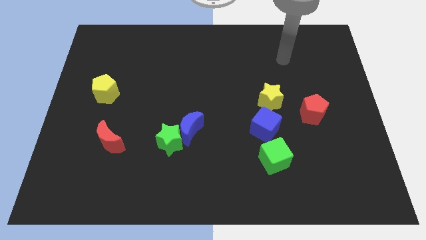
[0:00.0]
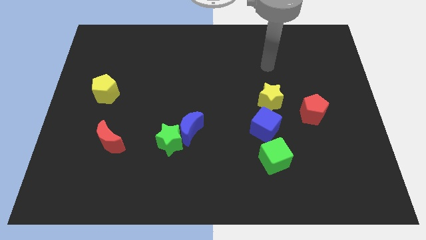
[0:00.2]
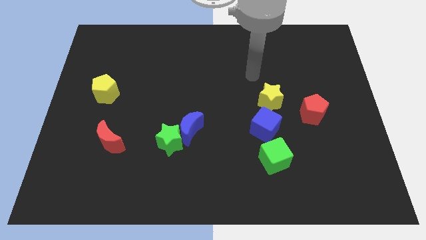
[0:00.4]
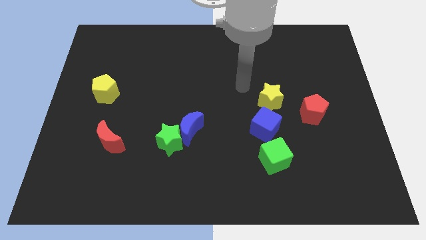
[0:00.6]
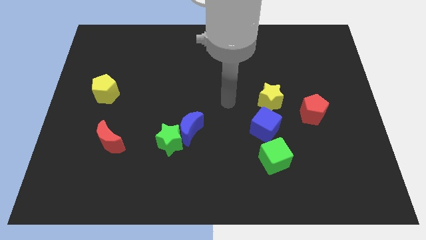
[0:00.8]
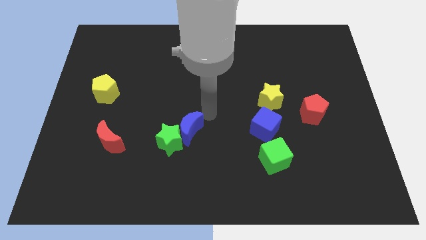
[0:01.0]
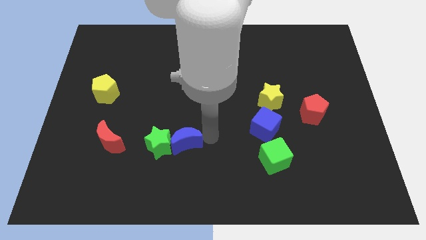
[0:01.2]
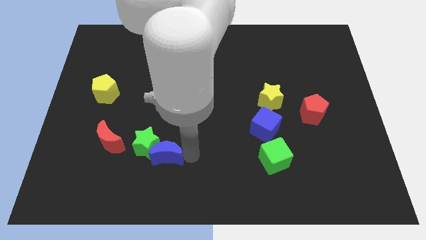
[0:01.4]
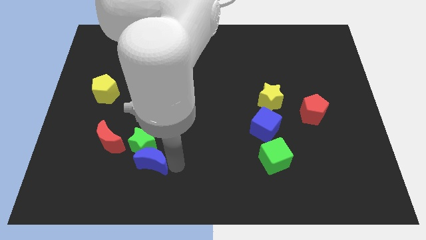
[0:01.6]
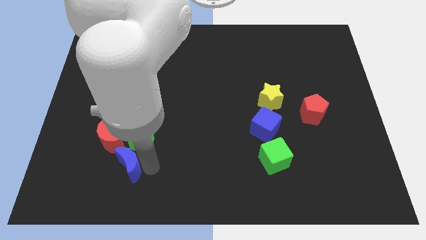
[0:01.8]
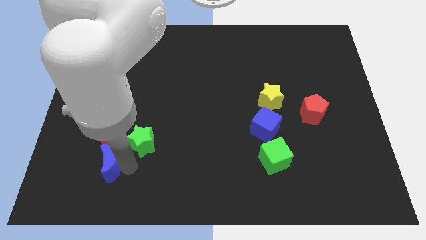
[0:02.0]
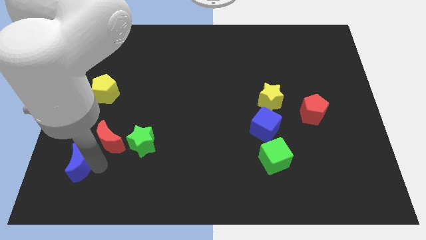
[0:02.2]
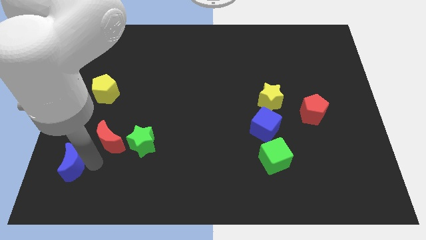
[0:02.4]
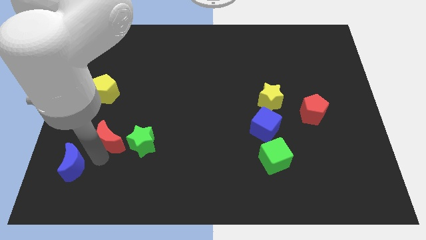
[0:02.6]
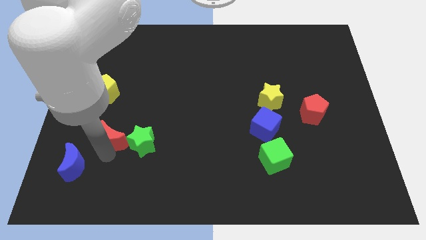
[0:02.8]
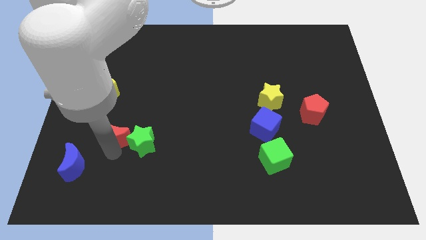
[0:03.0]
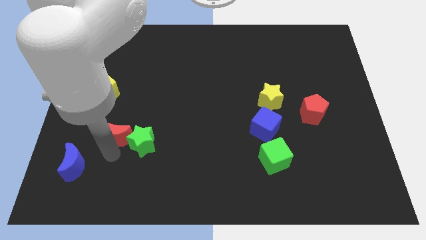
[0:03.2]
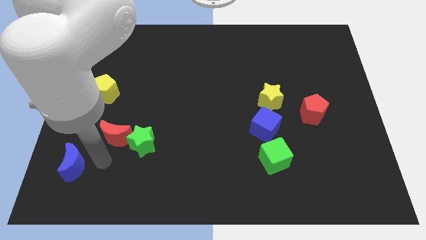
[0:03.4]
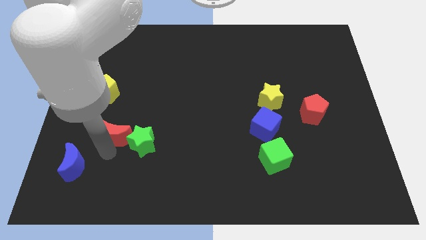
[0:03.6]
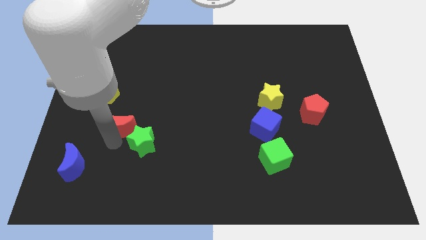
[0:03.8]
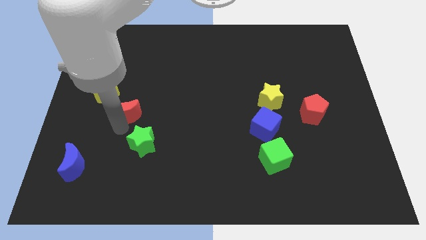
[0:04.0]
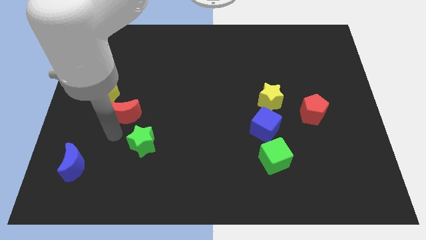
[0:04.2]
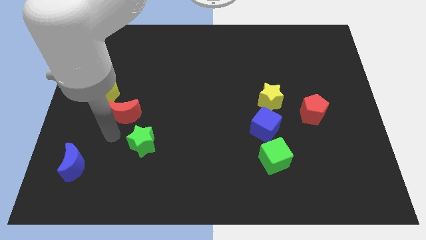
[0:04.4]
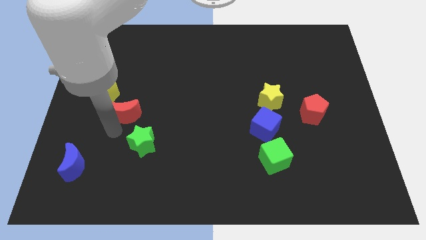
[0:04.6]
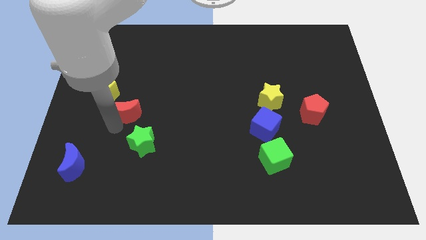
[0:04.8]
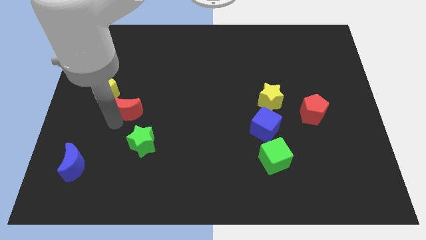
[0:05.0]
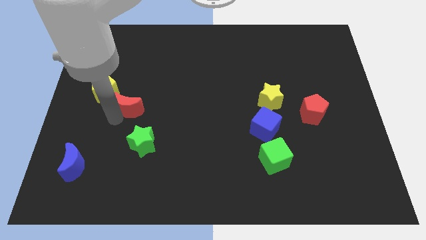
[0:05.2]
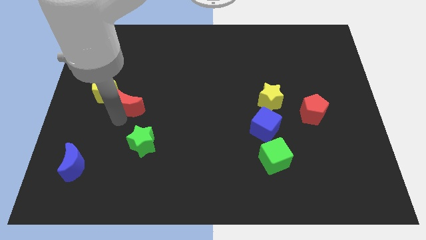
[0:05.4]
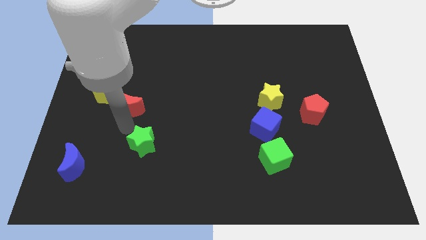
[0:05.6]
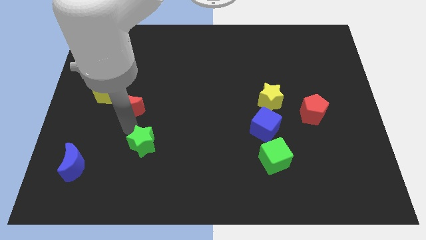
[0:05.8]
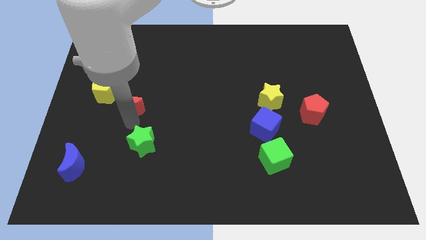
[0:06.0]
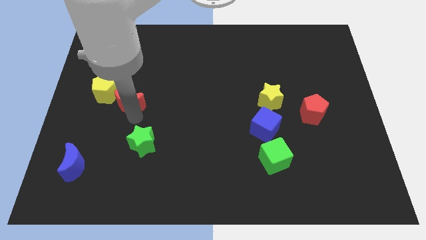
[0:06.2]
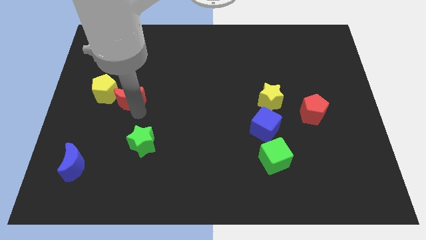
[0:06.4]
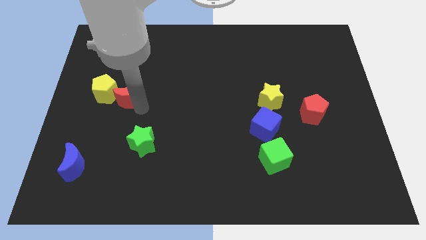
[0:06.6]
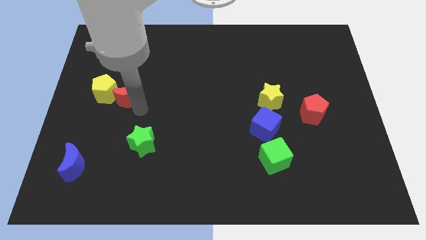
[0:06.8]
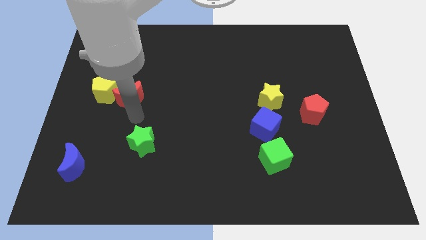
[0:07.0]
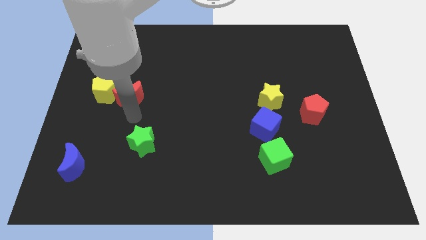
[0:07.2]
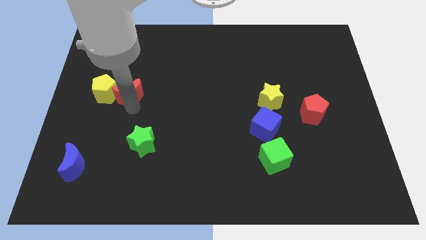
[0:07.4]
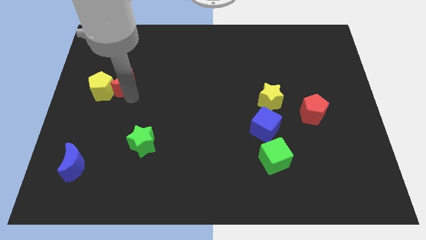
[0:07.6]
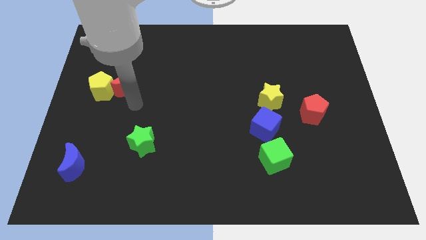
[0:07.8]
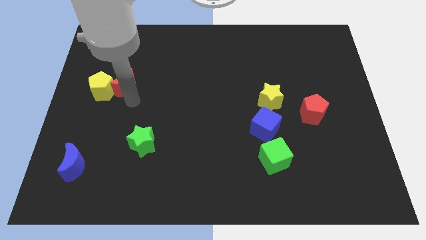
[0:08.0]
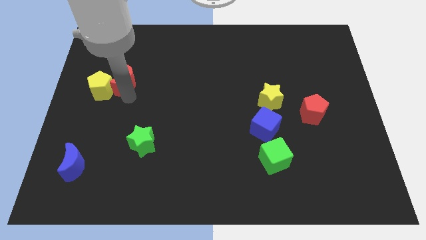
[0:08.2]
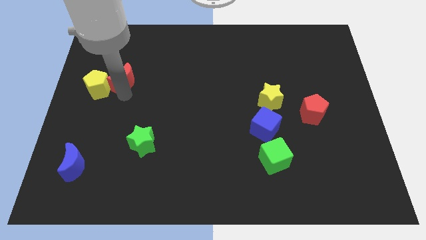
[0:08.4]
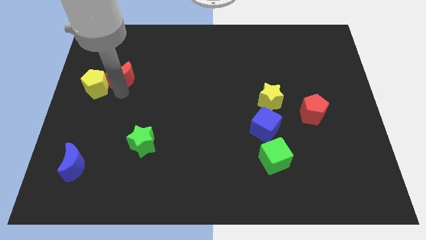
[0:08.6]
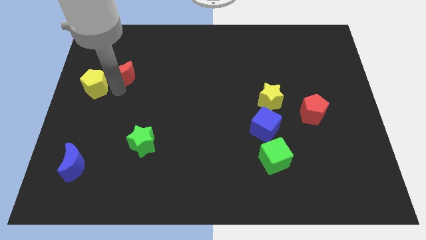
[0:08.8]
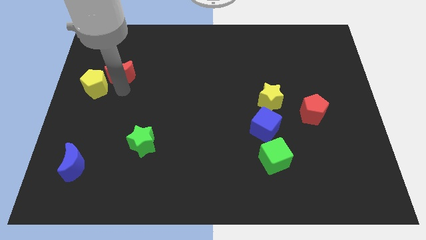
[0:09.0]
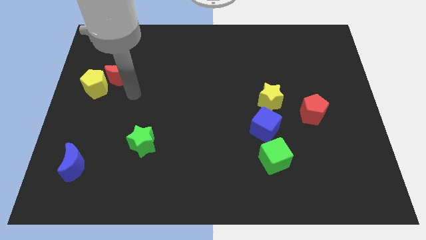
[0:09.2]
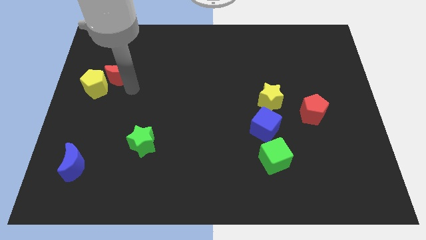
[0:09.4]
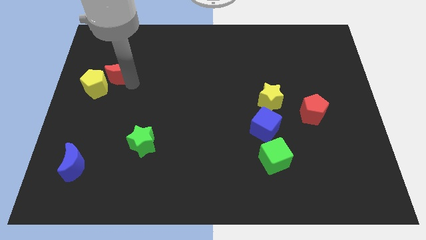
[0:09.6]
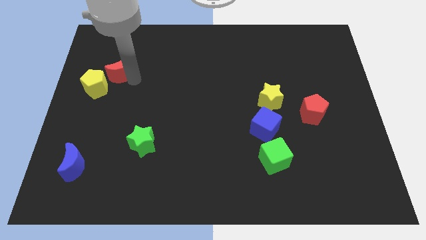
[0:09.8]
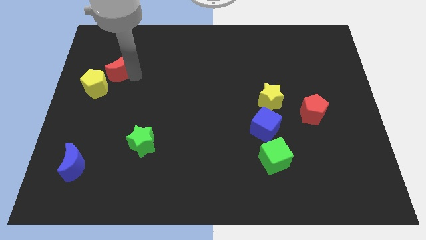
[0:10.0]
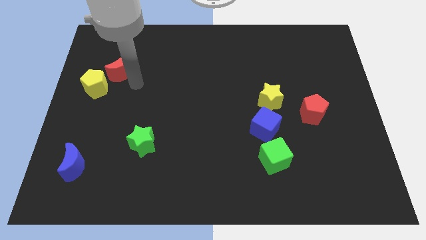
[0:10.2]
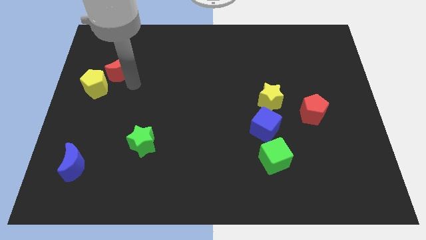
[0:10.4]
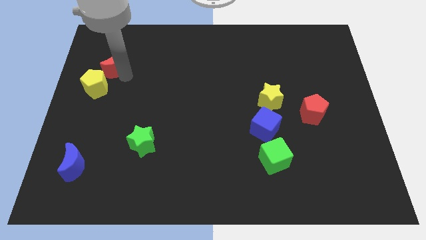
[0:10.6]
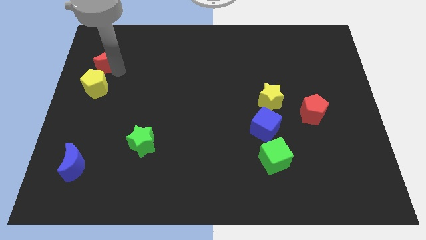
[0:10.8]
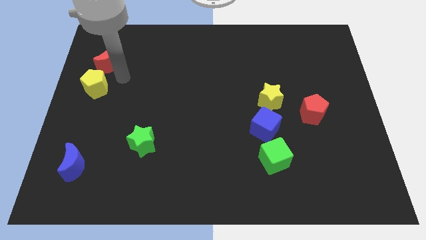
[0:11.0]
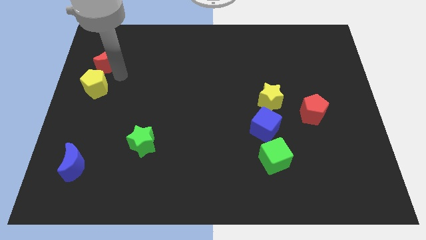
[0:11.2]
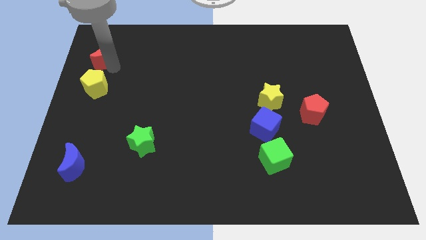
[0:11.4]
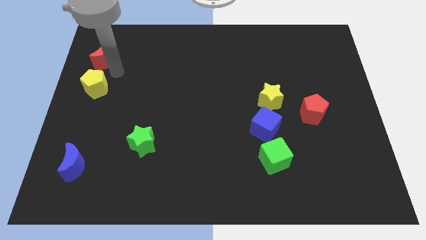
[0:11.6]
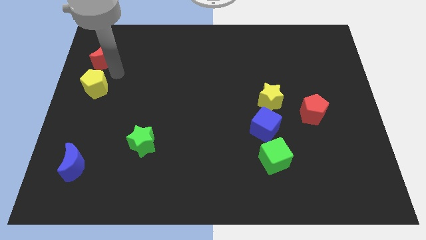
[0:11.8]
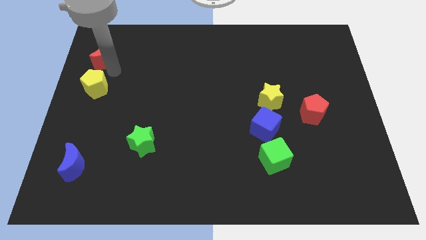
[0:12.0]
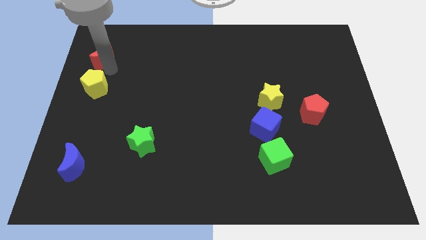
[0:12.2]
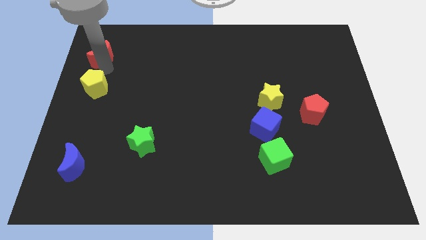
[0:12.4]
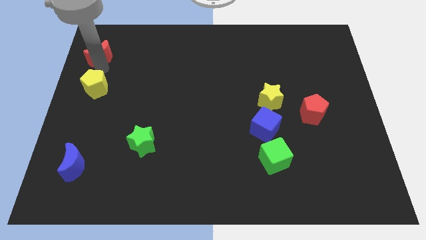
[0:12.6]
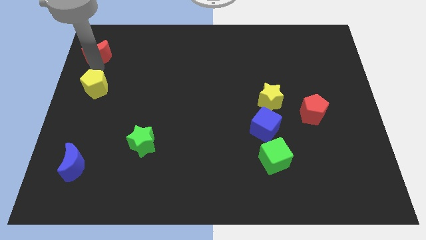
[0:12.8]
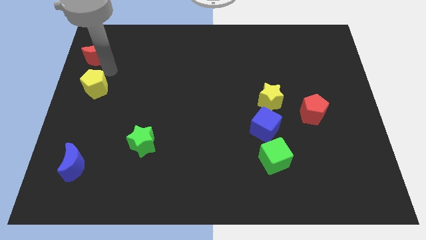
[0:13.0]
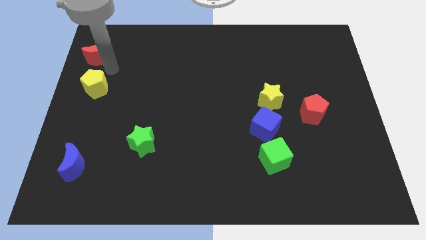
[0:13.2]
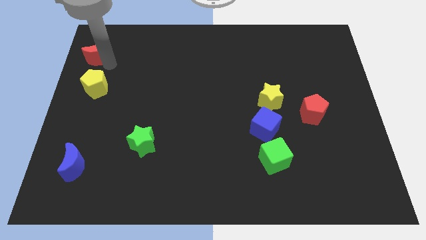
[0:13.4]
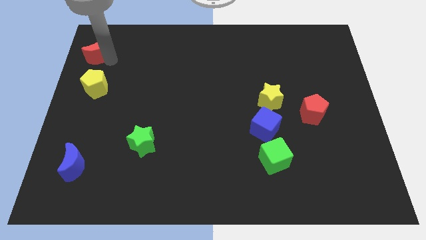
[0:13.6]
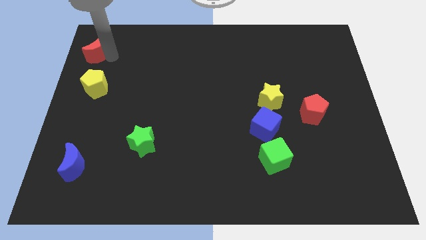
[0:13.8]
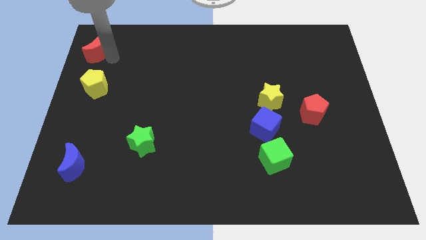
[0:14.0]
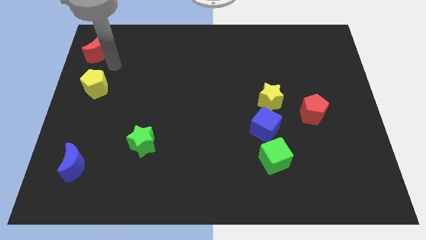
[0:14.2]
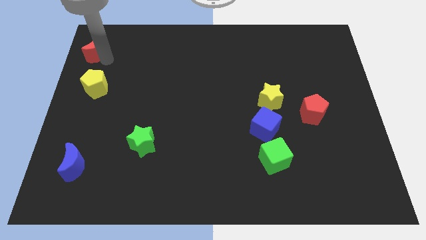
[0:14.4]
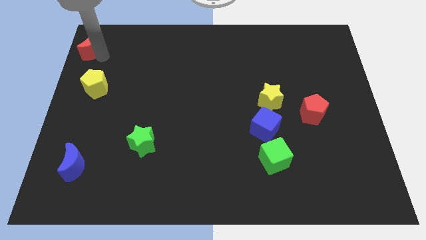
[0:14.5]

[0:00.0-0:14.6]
move the red moon to the top left
